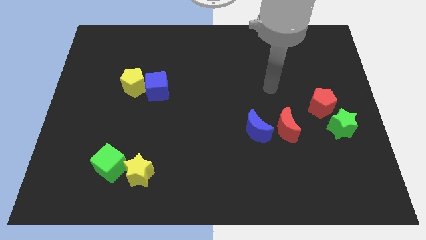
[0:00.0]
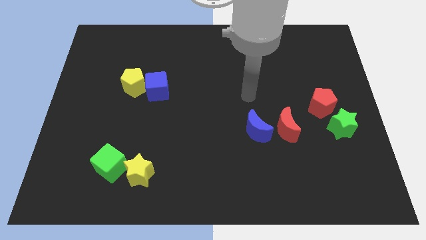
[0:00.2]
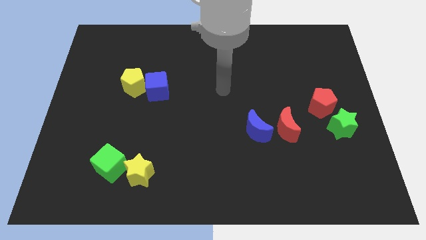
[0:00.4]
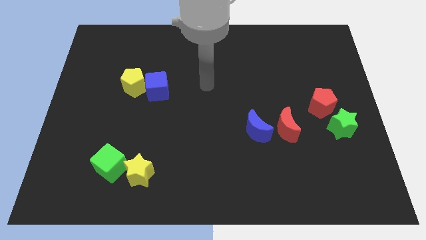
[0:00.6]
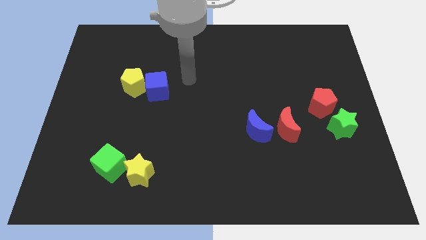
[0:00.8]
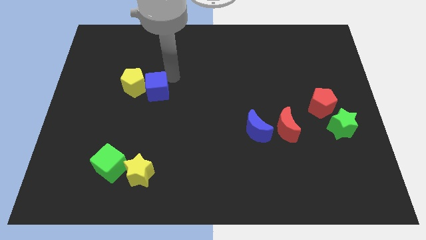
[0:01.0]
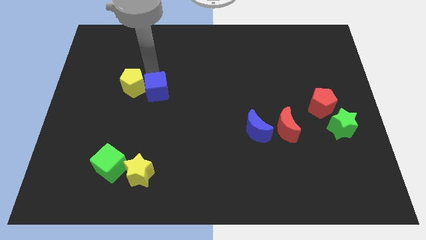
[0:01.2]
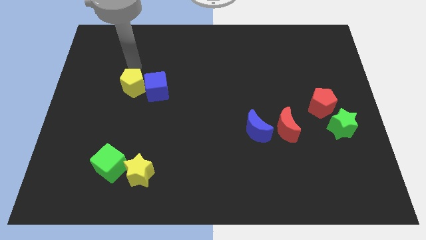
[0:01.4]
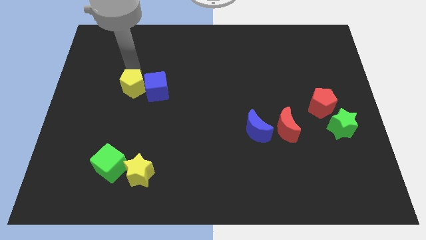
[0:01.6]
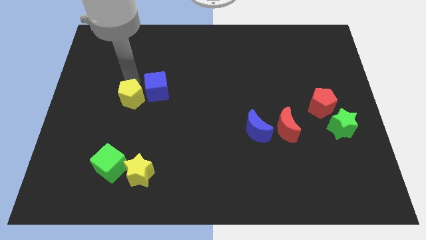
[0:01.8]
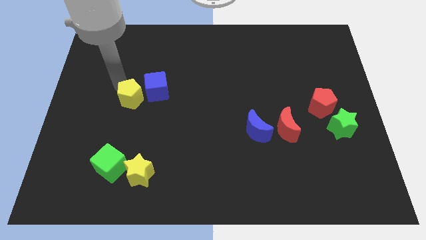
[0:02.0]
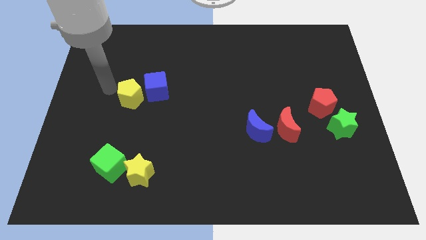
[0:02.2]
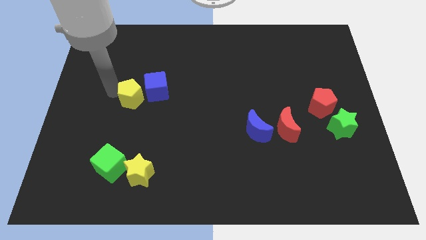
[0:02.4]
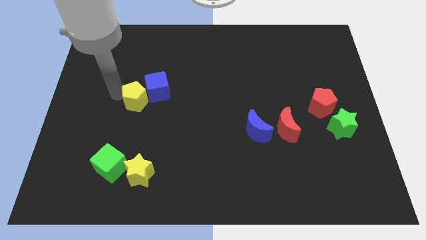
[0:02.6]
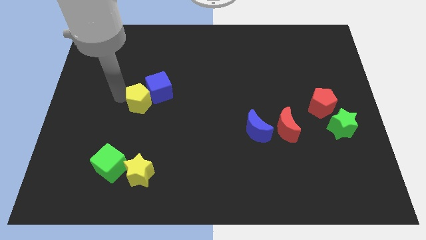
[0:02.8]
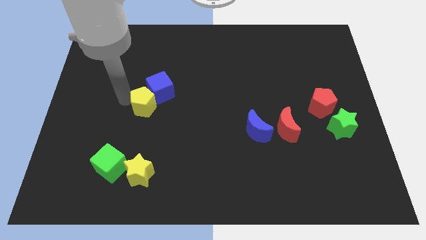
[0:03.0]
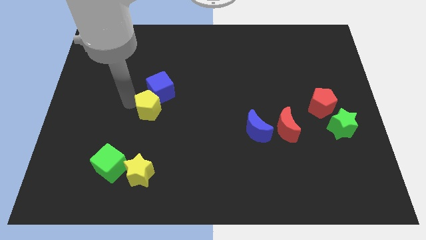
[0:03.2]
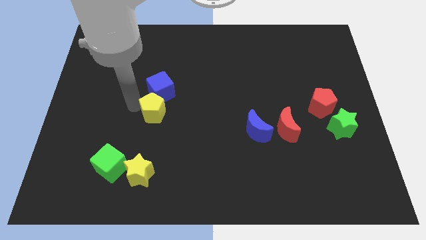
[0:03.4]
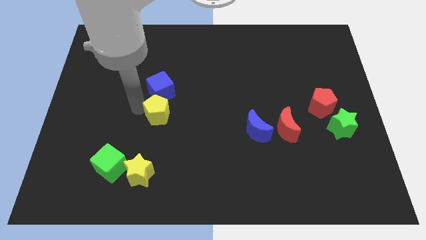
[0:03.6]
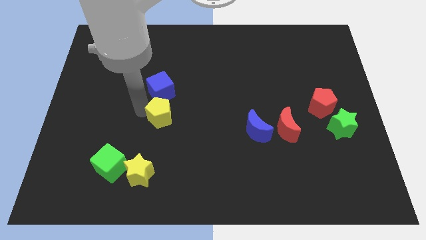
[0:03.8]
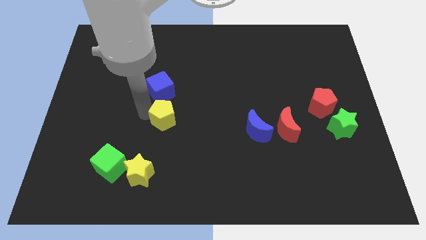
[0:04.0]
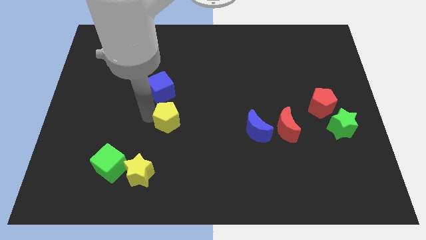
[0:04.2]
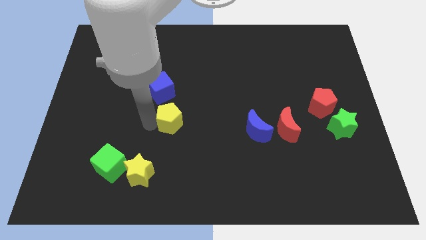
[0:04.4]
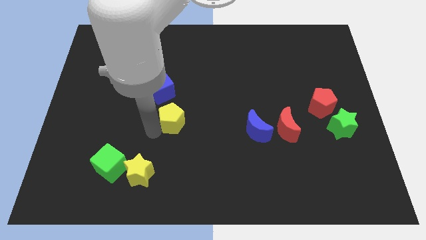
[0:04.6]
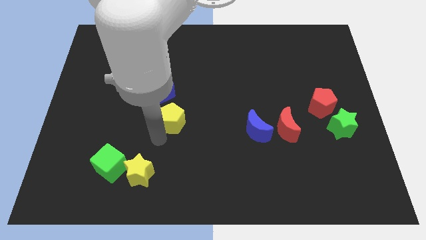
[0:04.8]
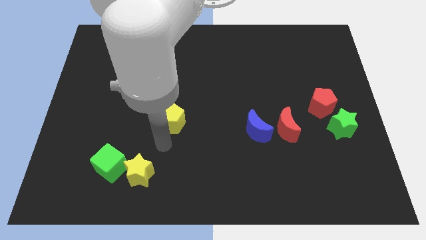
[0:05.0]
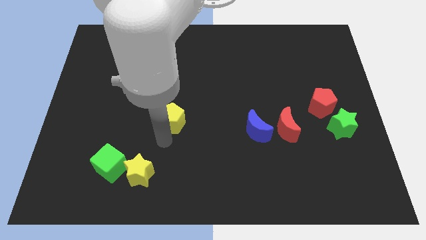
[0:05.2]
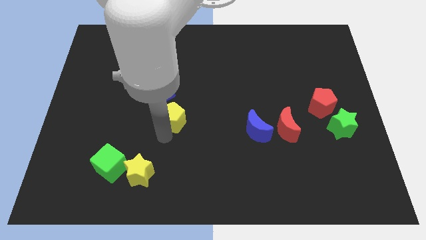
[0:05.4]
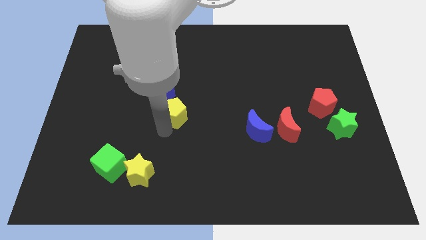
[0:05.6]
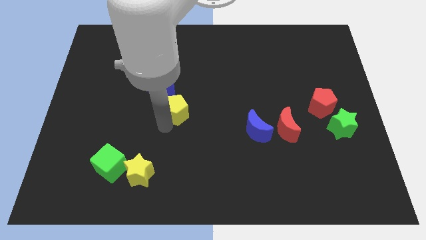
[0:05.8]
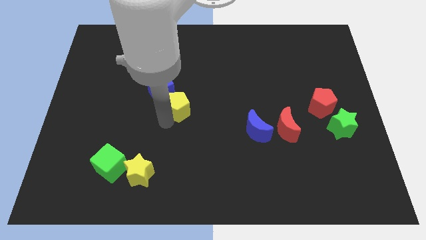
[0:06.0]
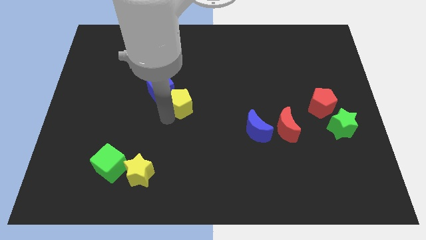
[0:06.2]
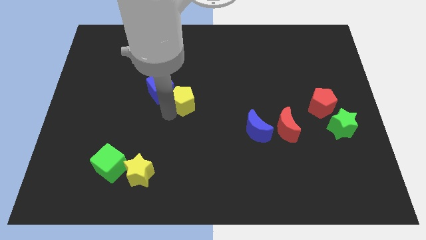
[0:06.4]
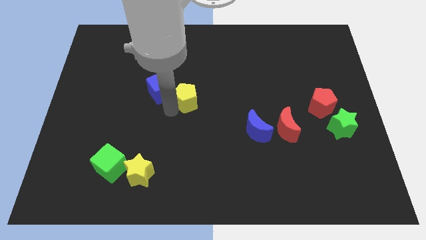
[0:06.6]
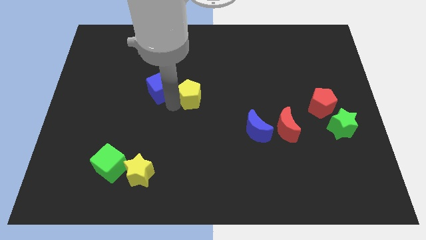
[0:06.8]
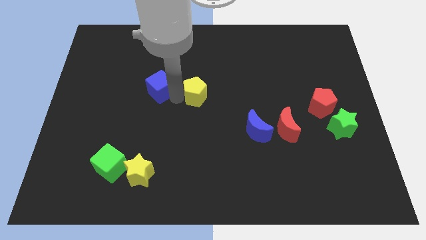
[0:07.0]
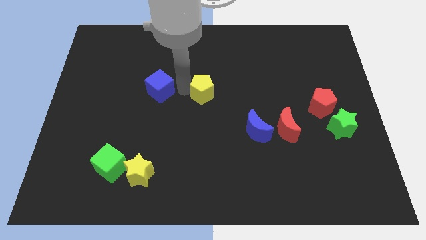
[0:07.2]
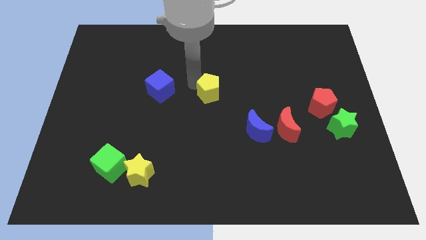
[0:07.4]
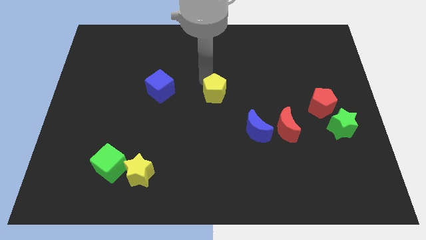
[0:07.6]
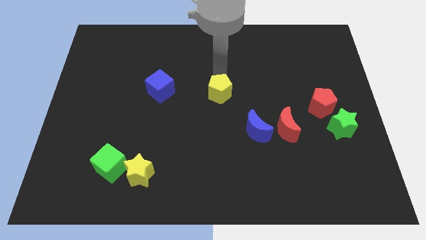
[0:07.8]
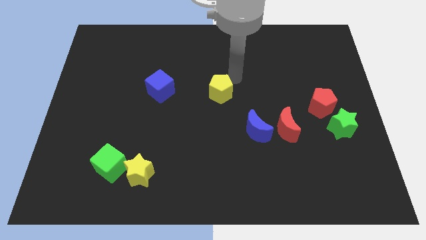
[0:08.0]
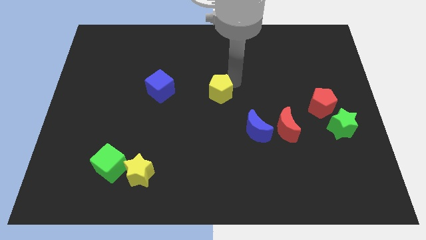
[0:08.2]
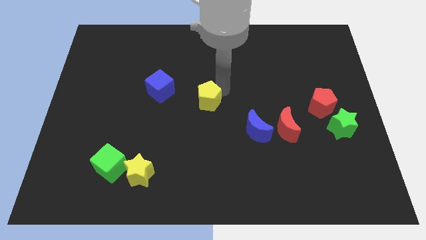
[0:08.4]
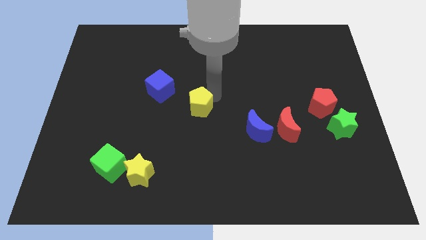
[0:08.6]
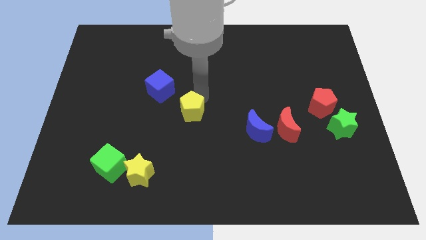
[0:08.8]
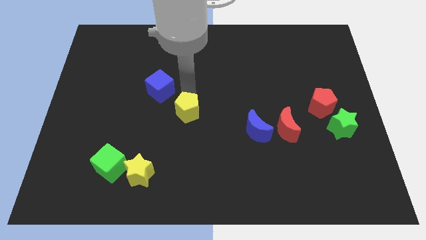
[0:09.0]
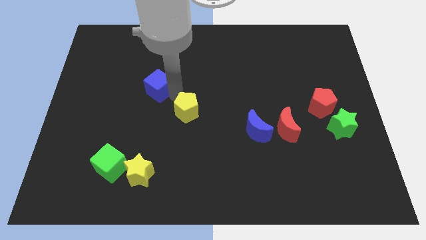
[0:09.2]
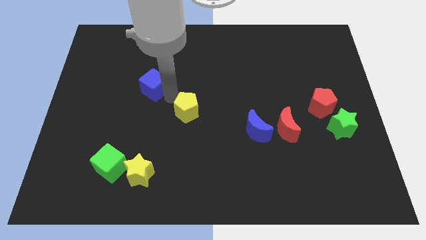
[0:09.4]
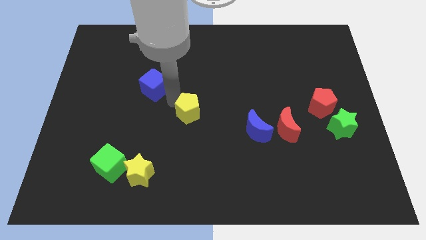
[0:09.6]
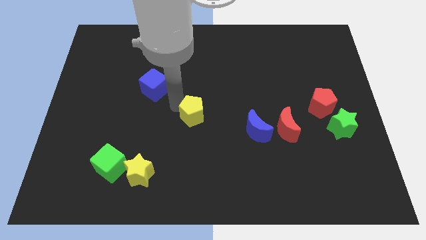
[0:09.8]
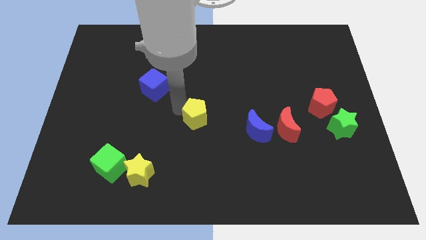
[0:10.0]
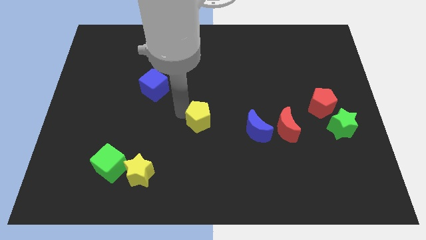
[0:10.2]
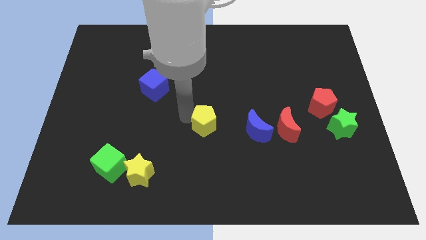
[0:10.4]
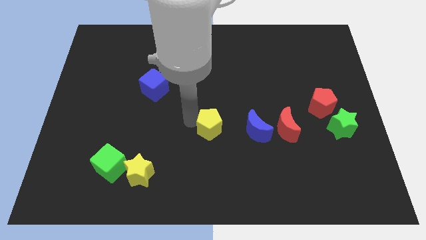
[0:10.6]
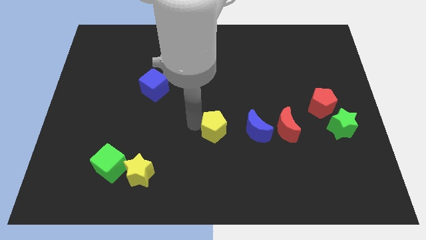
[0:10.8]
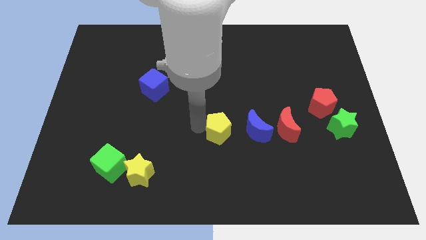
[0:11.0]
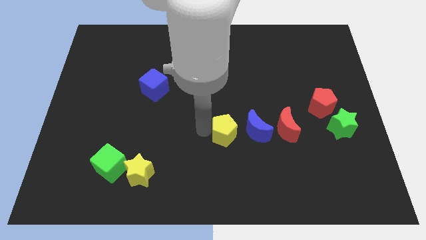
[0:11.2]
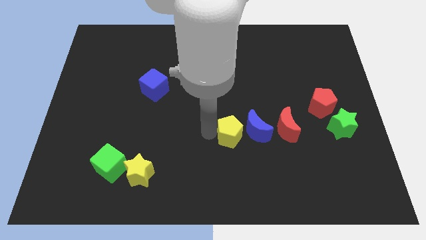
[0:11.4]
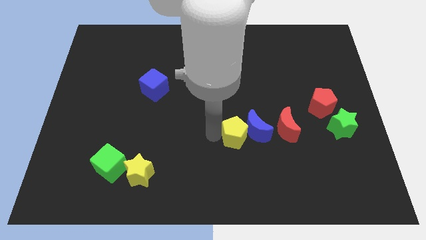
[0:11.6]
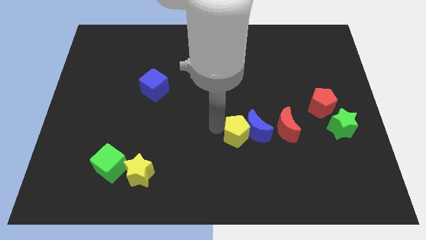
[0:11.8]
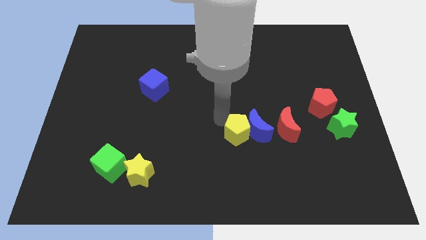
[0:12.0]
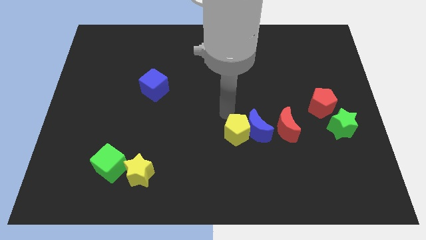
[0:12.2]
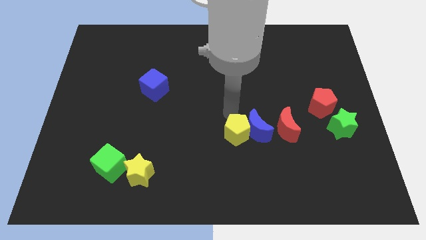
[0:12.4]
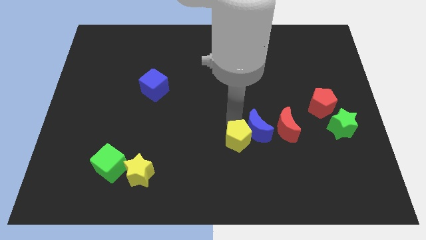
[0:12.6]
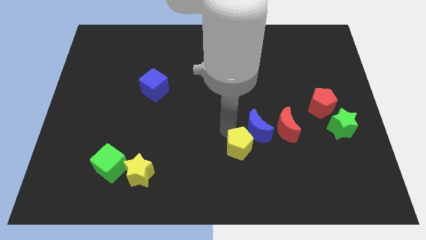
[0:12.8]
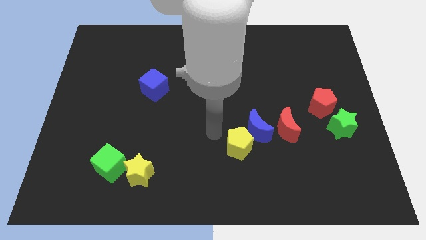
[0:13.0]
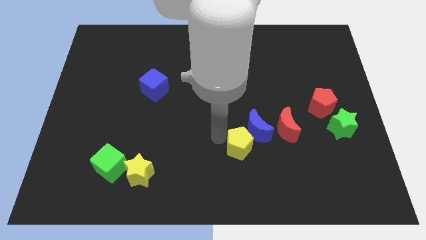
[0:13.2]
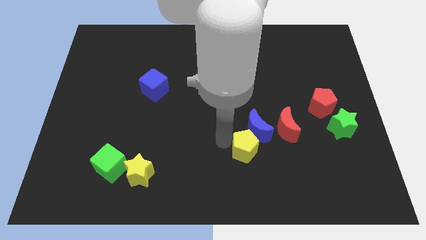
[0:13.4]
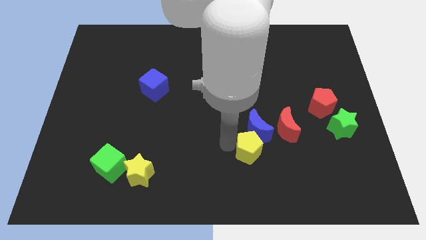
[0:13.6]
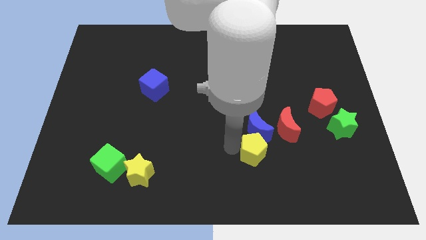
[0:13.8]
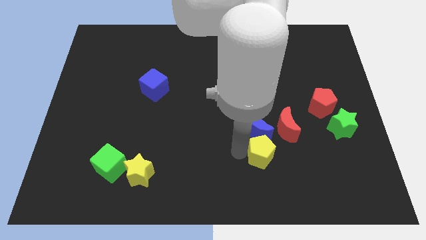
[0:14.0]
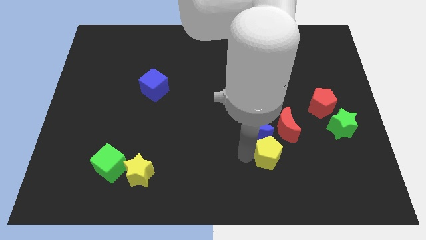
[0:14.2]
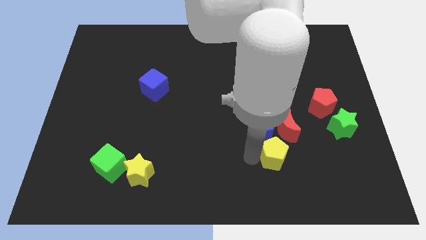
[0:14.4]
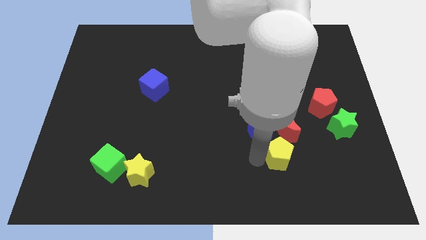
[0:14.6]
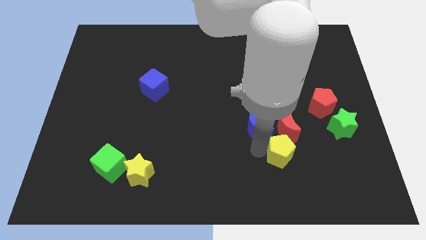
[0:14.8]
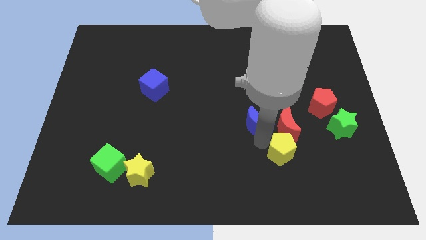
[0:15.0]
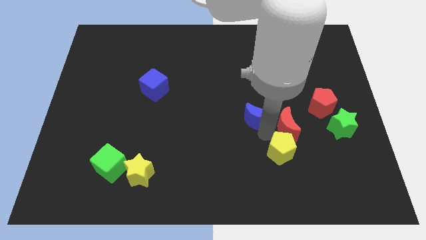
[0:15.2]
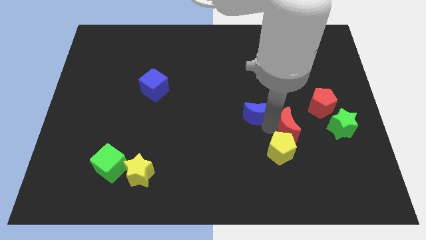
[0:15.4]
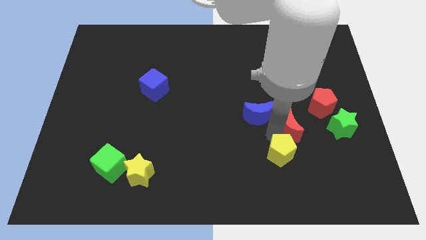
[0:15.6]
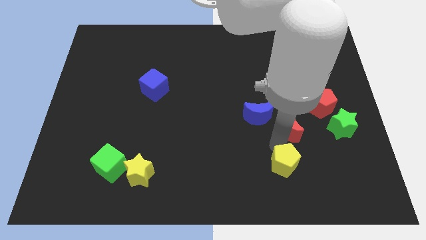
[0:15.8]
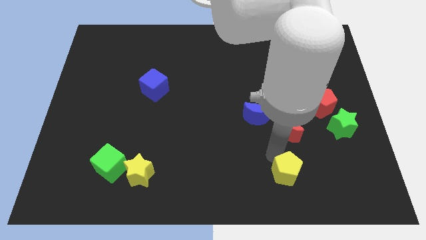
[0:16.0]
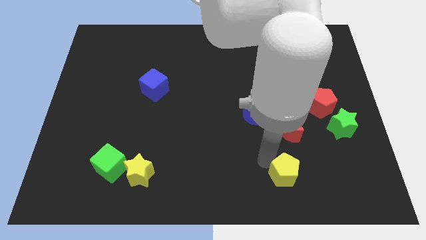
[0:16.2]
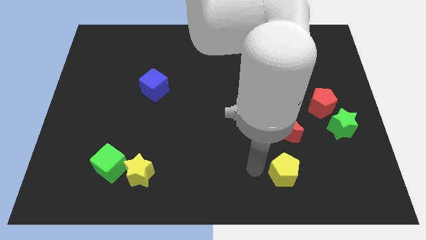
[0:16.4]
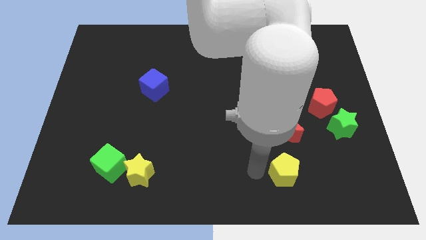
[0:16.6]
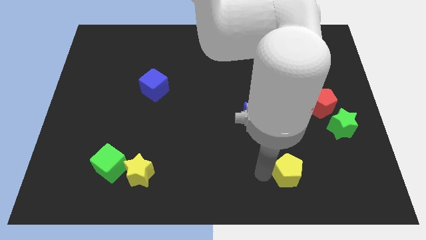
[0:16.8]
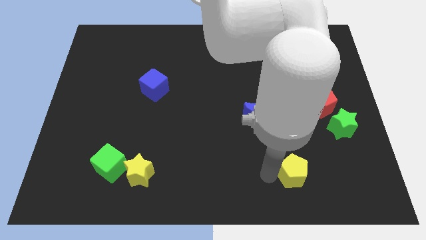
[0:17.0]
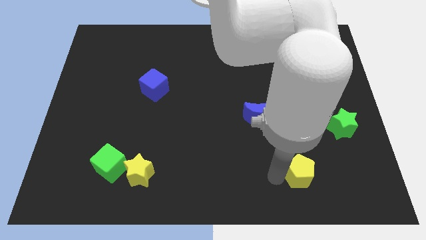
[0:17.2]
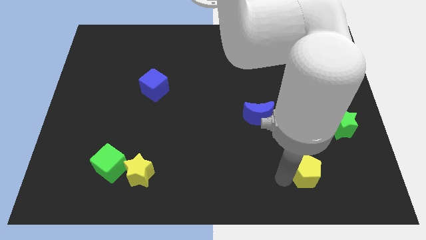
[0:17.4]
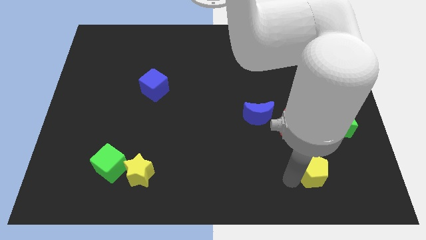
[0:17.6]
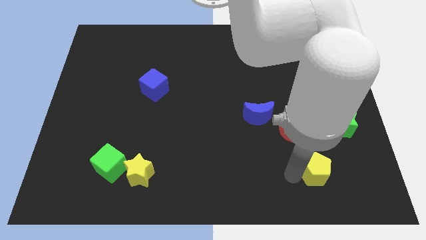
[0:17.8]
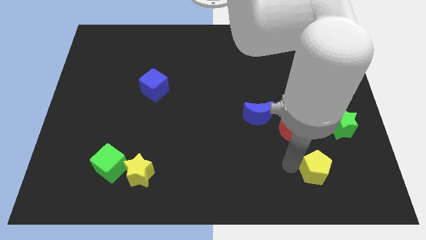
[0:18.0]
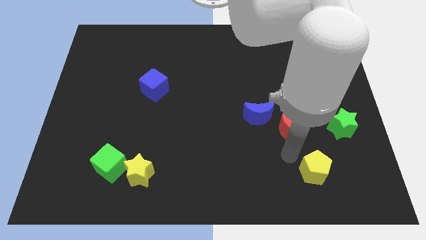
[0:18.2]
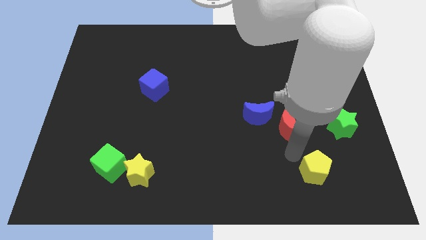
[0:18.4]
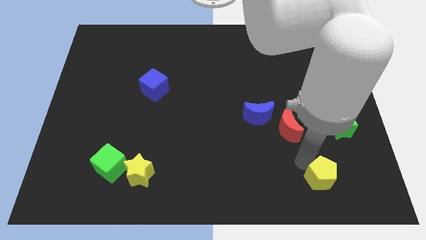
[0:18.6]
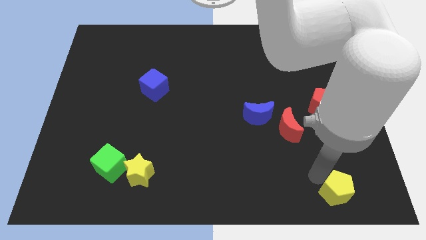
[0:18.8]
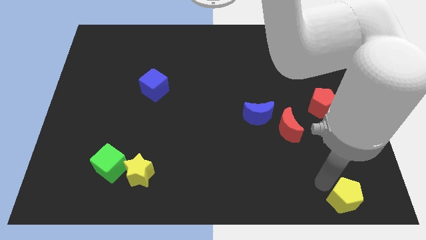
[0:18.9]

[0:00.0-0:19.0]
put the yellow pentagon to the bottom right
